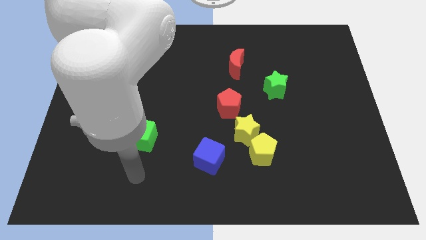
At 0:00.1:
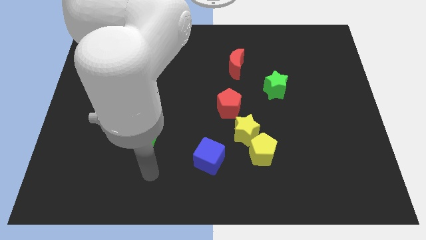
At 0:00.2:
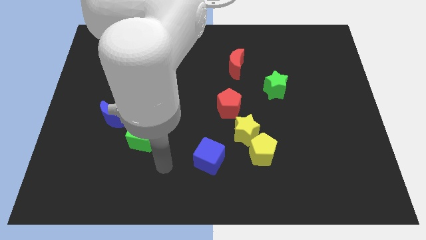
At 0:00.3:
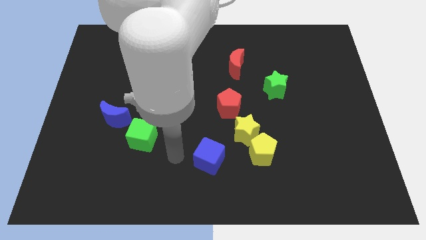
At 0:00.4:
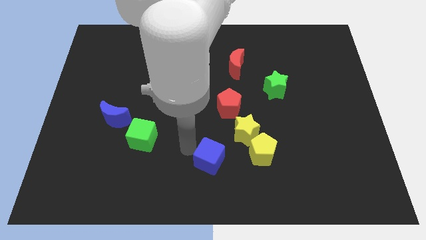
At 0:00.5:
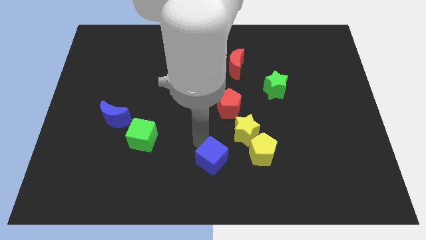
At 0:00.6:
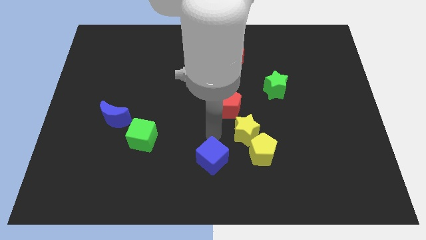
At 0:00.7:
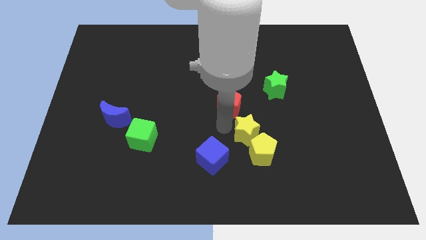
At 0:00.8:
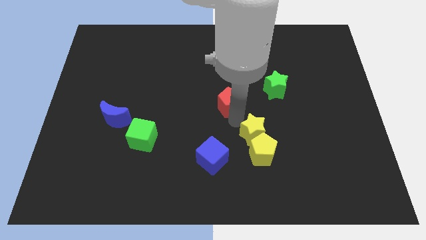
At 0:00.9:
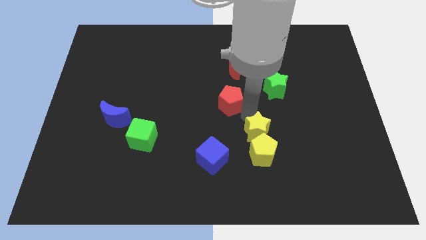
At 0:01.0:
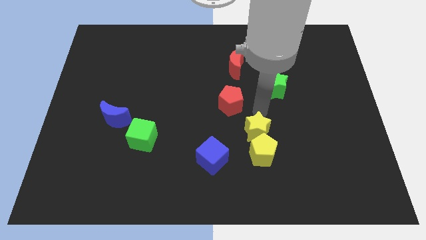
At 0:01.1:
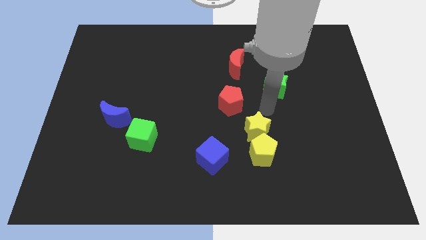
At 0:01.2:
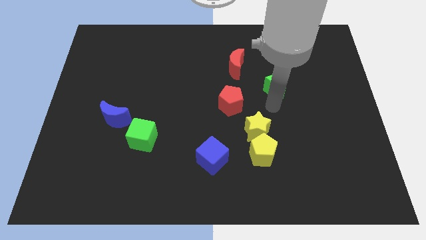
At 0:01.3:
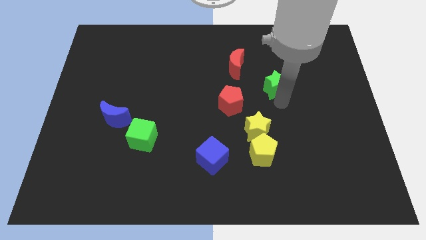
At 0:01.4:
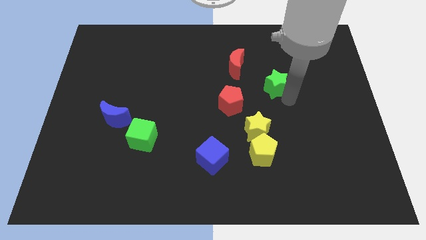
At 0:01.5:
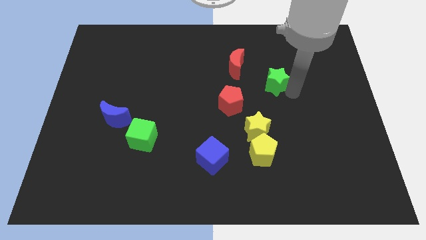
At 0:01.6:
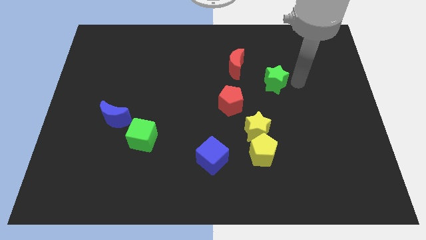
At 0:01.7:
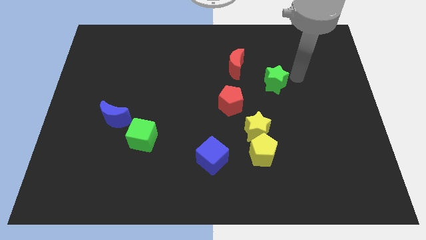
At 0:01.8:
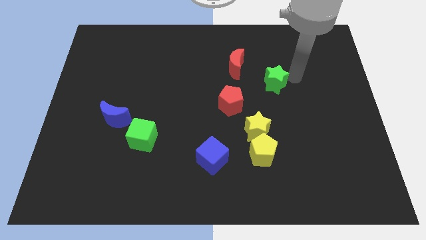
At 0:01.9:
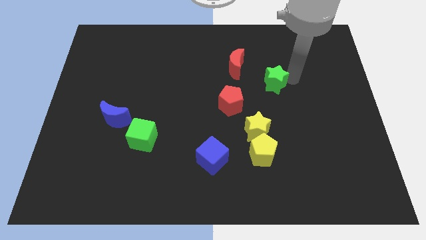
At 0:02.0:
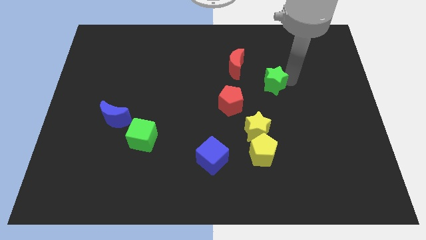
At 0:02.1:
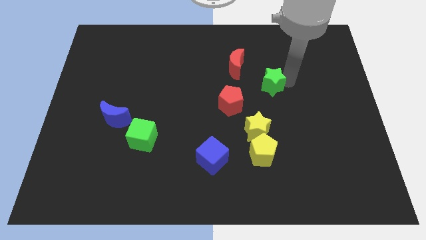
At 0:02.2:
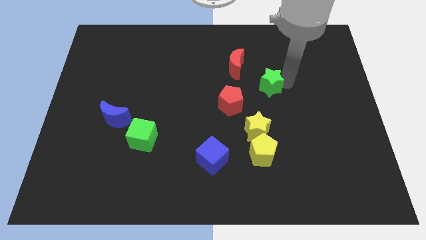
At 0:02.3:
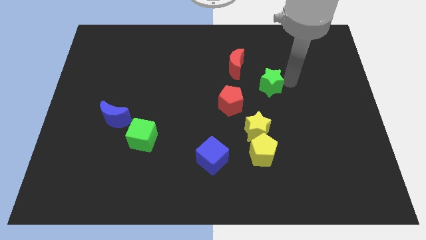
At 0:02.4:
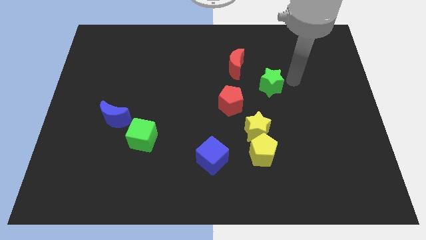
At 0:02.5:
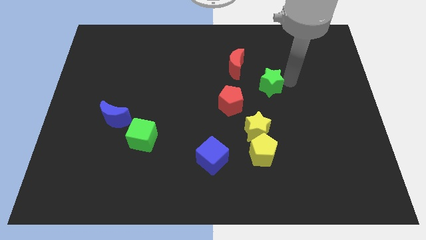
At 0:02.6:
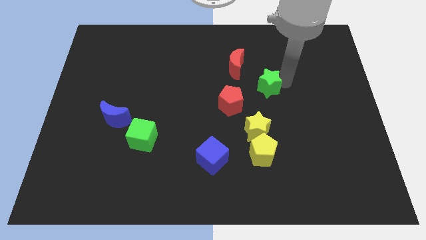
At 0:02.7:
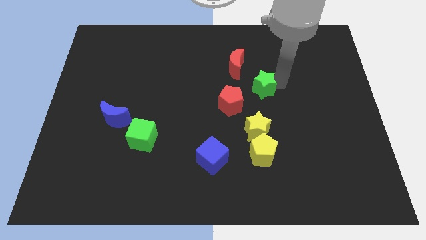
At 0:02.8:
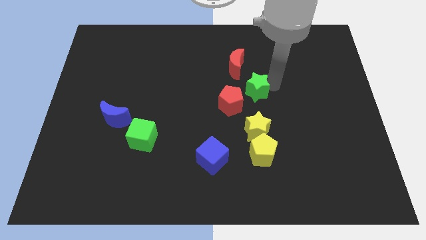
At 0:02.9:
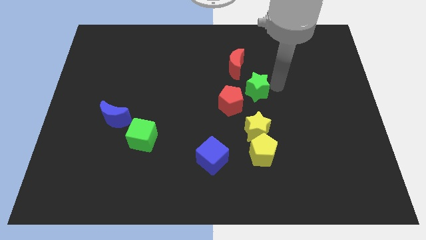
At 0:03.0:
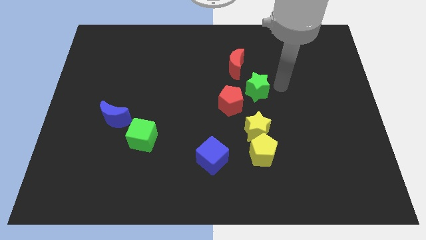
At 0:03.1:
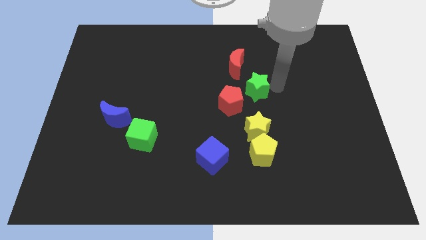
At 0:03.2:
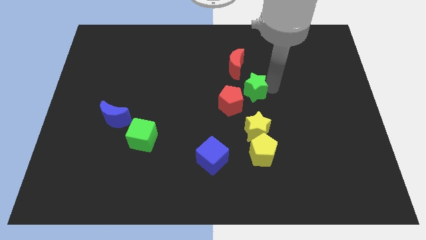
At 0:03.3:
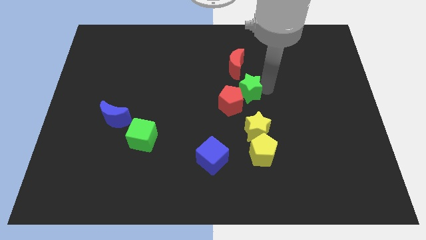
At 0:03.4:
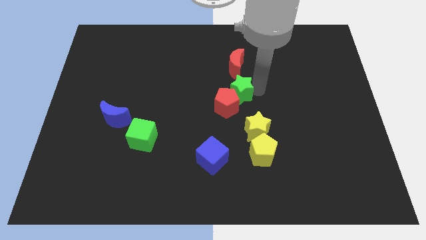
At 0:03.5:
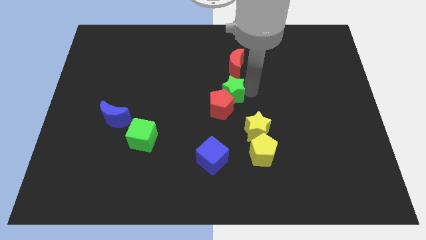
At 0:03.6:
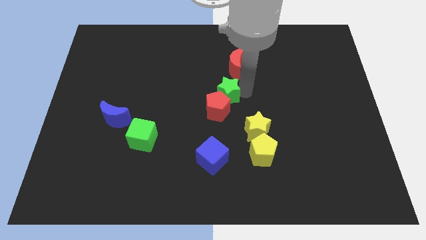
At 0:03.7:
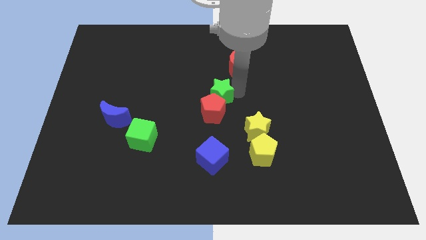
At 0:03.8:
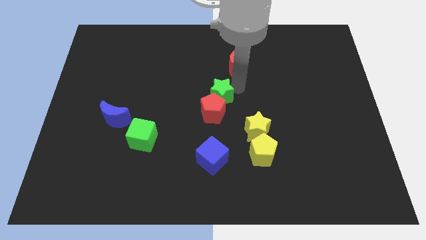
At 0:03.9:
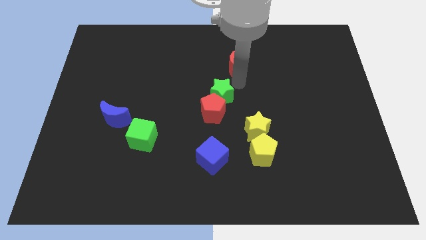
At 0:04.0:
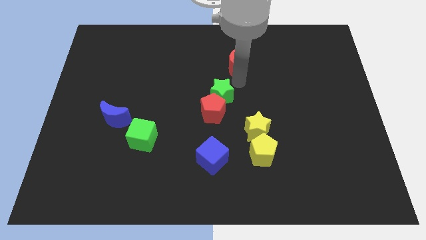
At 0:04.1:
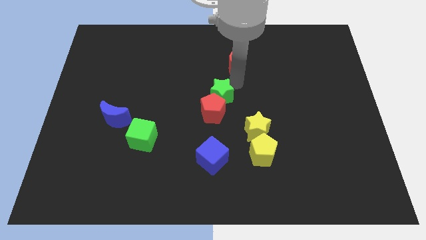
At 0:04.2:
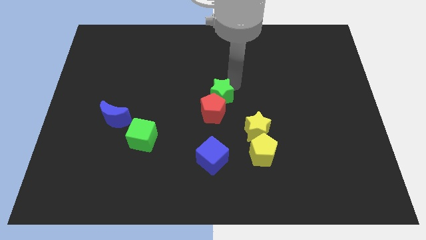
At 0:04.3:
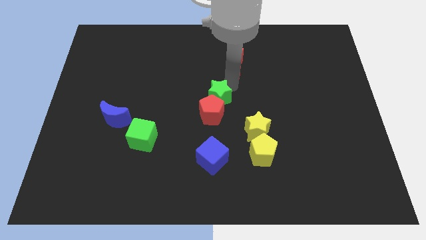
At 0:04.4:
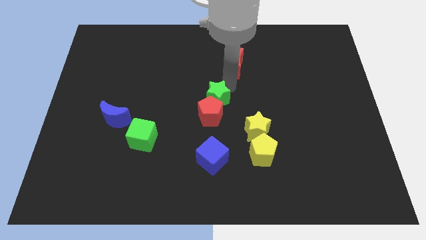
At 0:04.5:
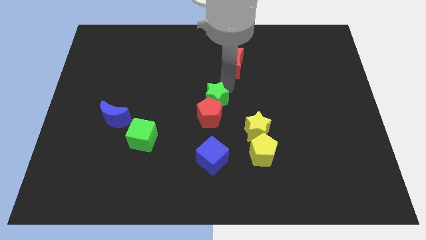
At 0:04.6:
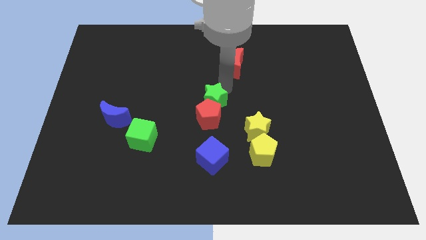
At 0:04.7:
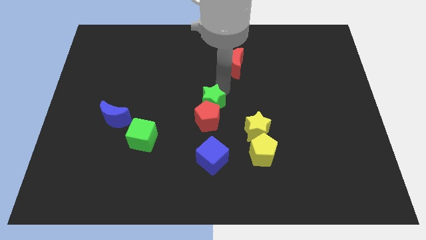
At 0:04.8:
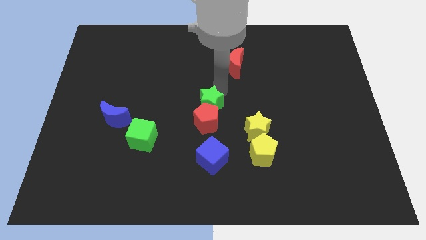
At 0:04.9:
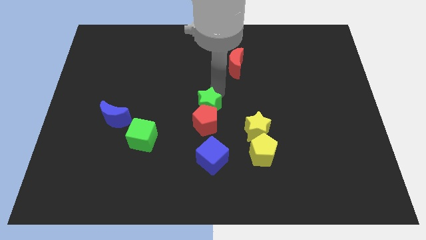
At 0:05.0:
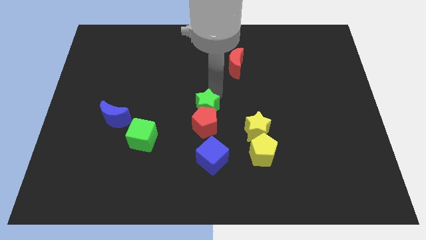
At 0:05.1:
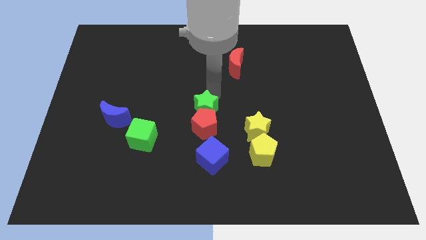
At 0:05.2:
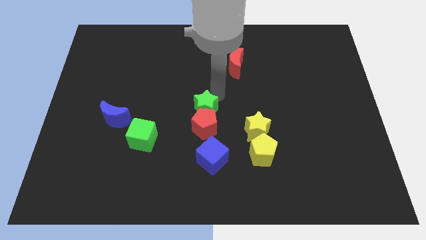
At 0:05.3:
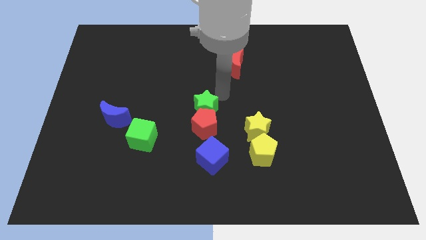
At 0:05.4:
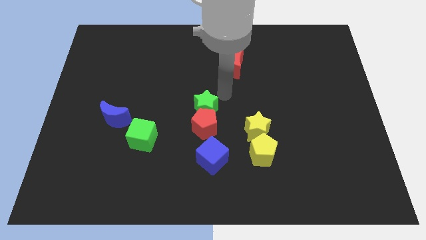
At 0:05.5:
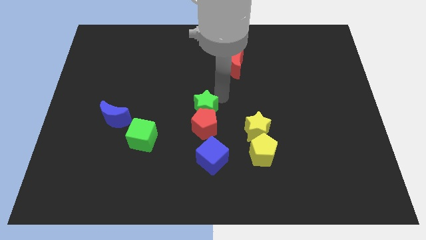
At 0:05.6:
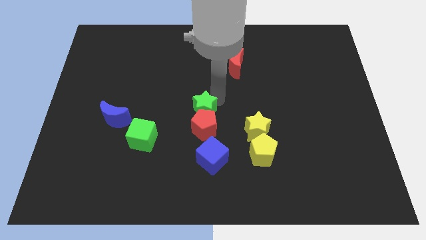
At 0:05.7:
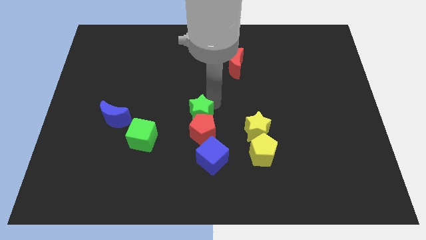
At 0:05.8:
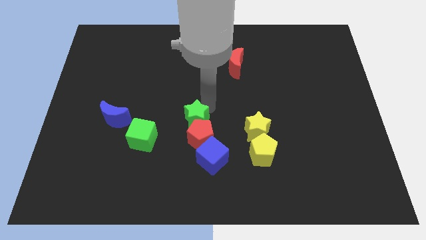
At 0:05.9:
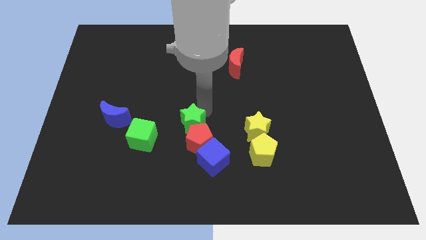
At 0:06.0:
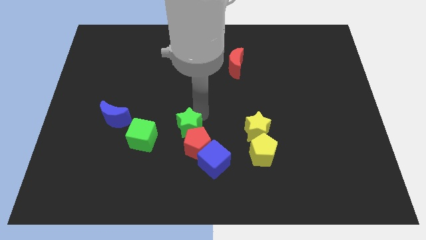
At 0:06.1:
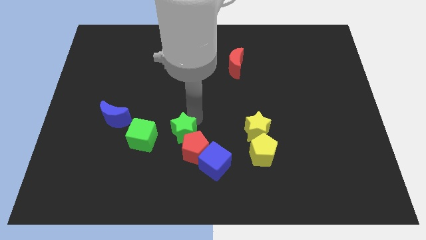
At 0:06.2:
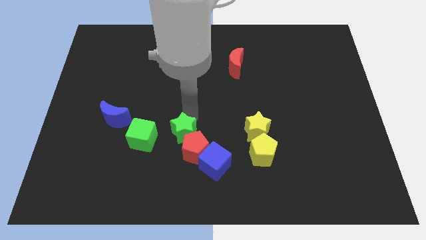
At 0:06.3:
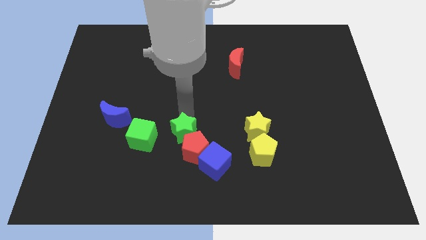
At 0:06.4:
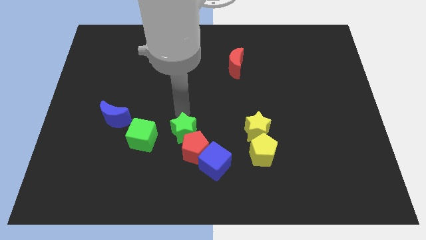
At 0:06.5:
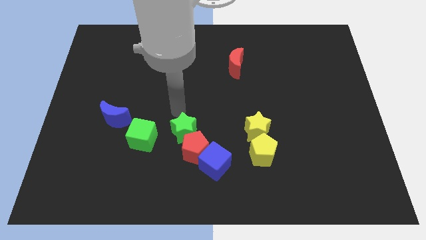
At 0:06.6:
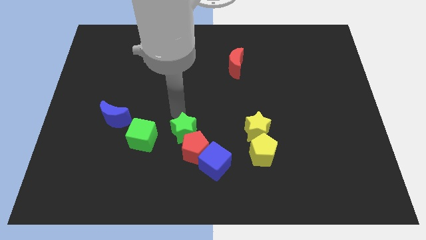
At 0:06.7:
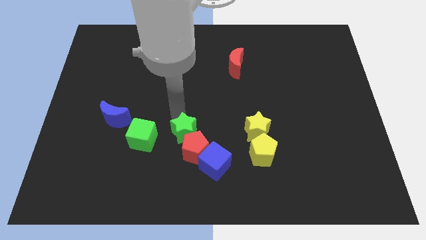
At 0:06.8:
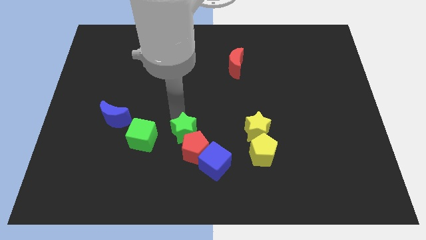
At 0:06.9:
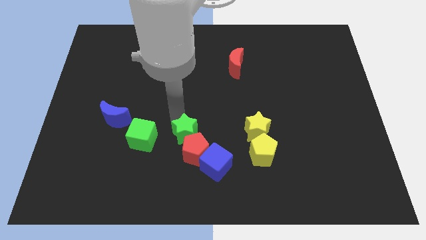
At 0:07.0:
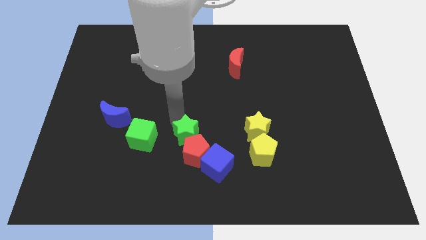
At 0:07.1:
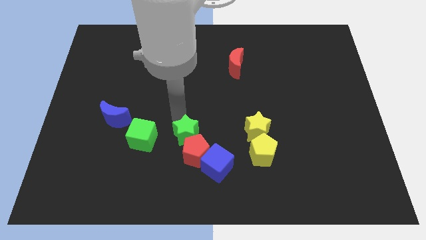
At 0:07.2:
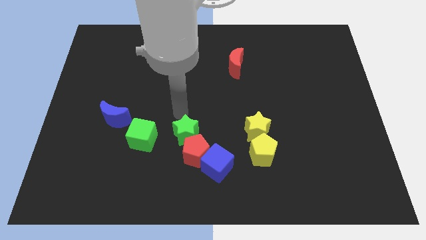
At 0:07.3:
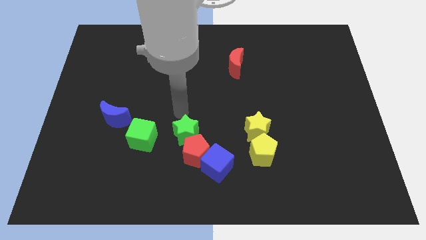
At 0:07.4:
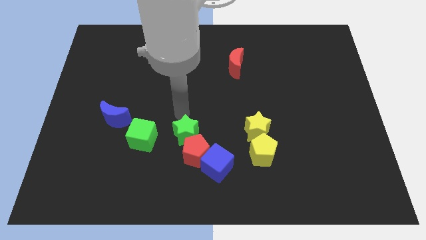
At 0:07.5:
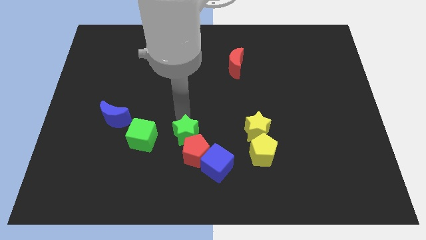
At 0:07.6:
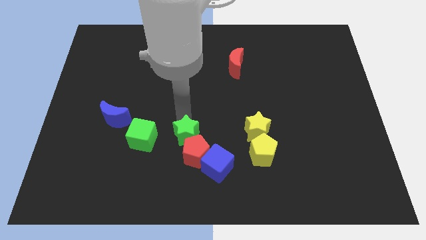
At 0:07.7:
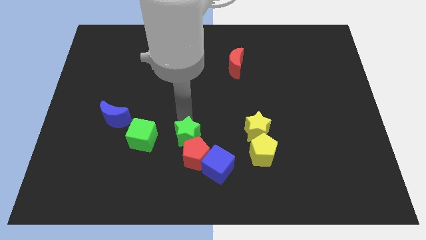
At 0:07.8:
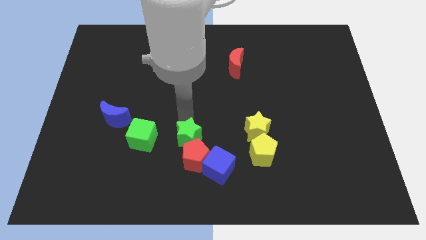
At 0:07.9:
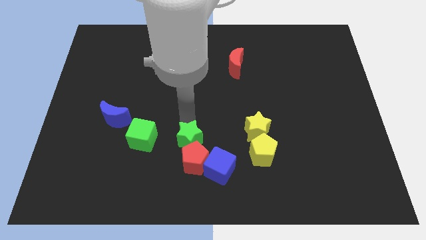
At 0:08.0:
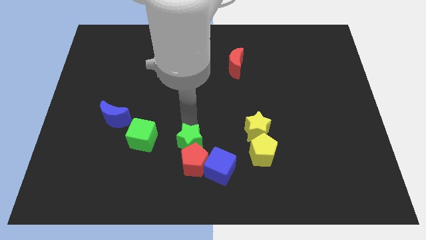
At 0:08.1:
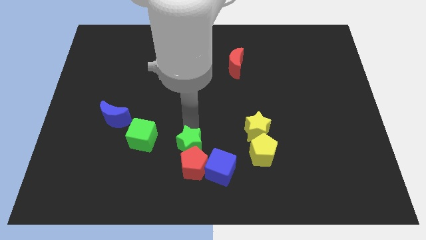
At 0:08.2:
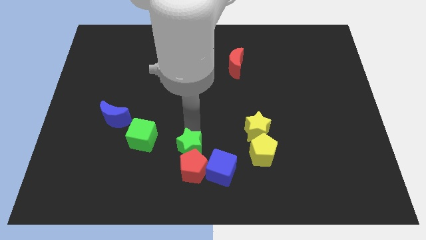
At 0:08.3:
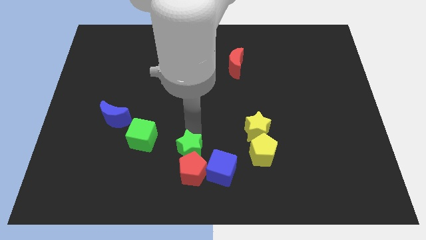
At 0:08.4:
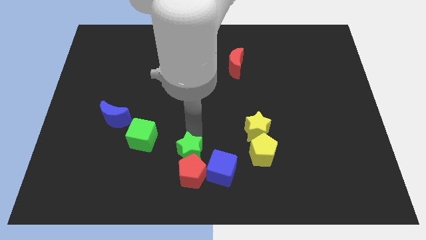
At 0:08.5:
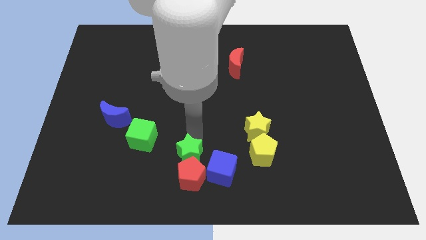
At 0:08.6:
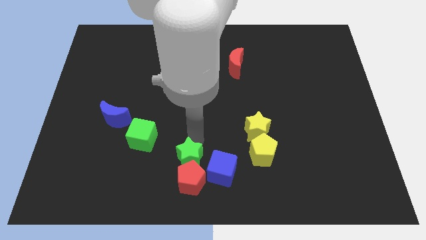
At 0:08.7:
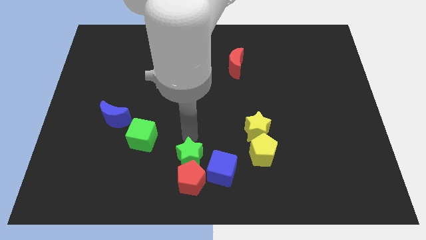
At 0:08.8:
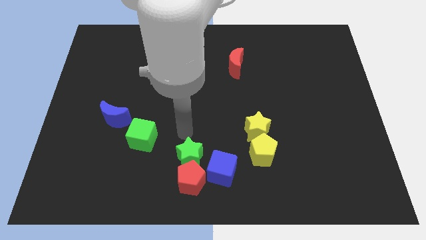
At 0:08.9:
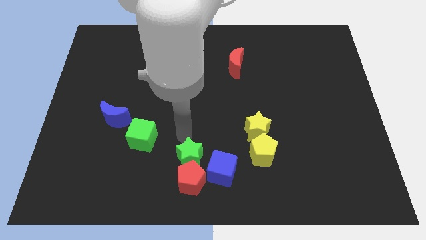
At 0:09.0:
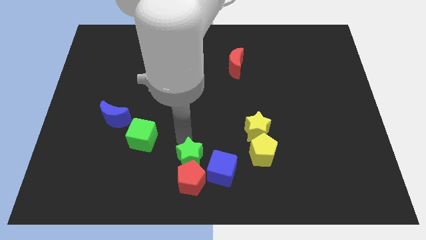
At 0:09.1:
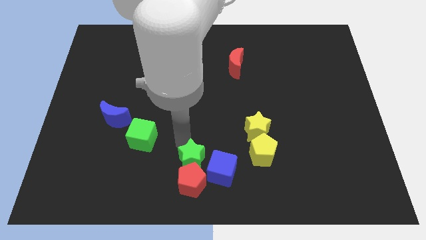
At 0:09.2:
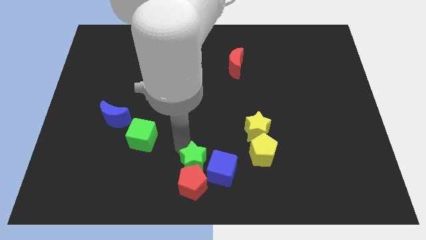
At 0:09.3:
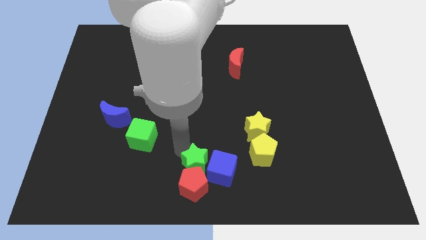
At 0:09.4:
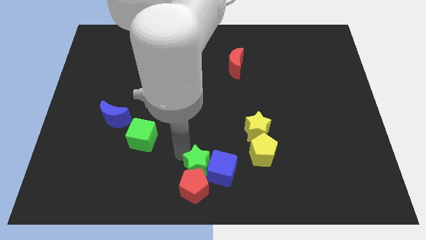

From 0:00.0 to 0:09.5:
slide the green star to the bottom left side of the blue cube
